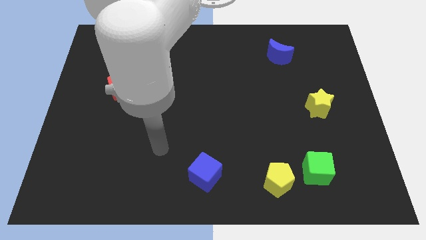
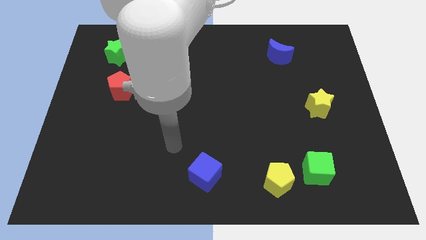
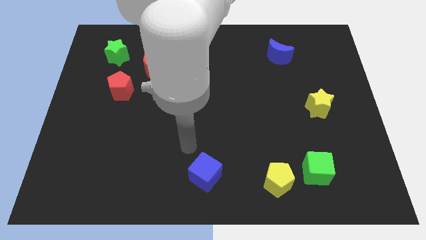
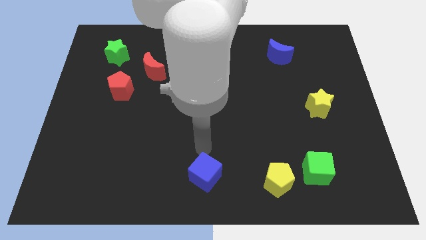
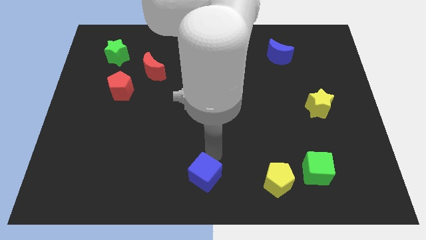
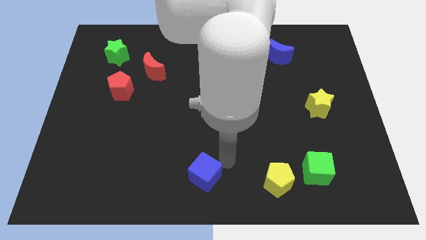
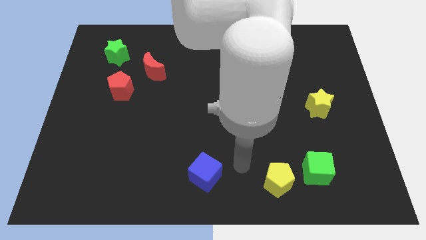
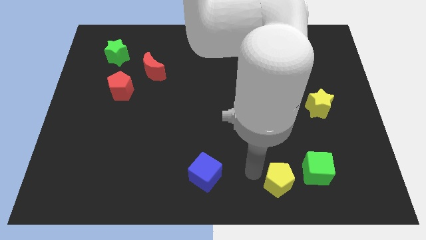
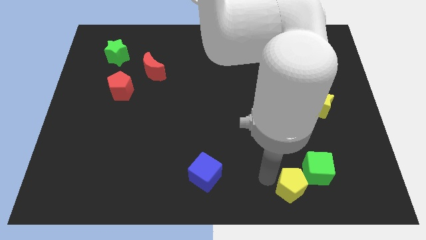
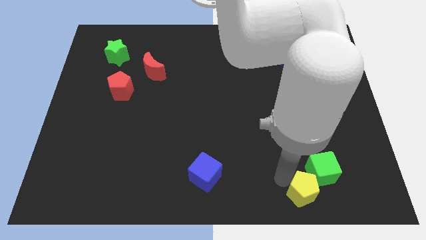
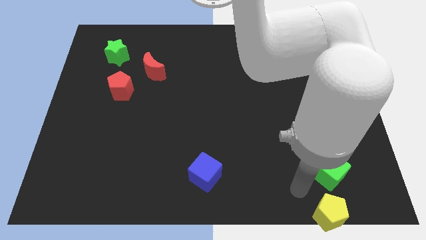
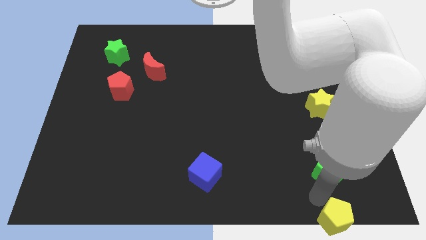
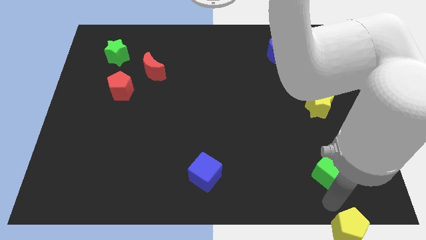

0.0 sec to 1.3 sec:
separate the green cube from the yellow pentagon

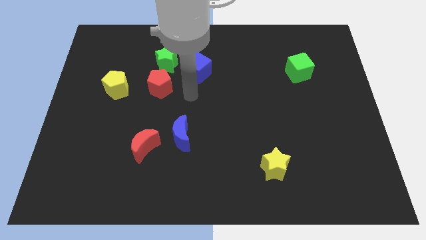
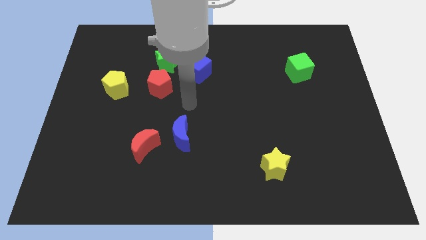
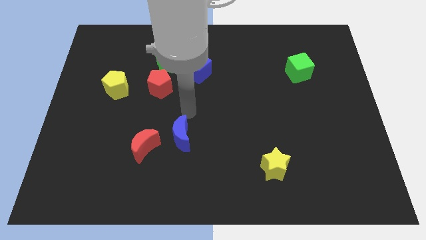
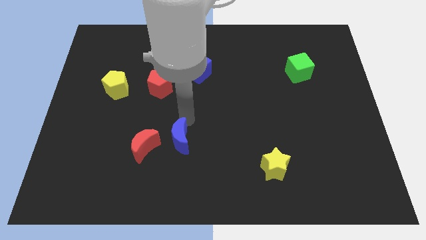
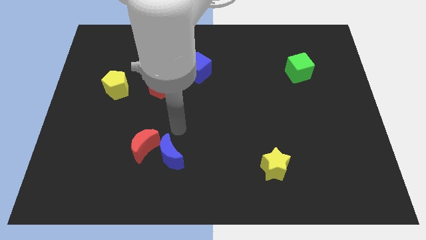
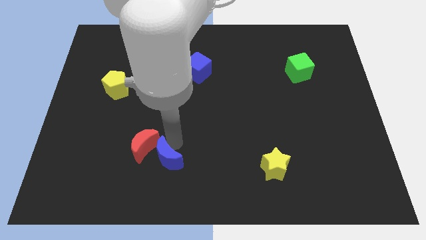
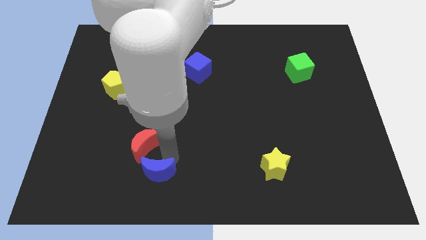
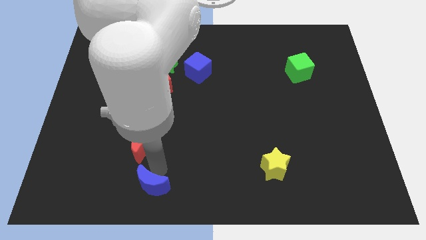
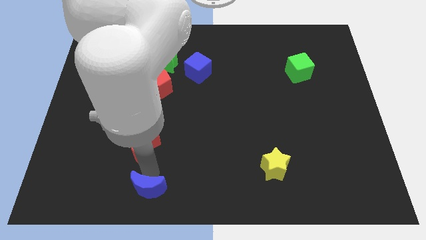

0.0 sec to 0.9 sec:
pull the red moon apart from the blue moon

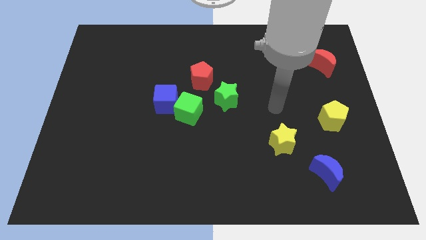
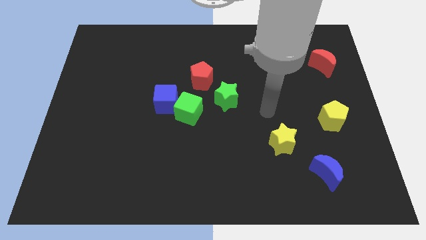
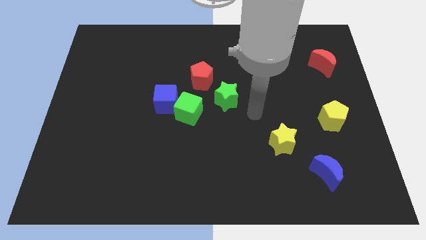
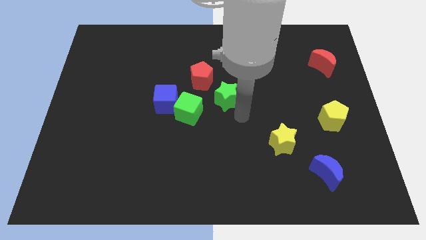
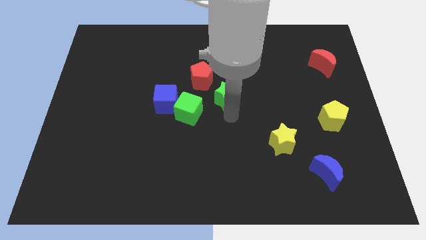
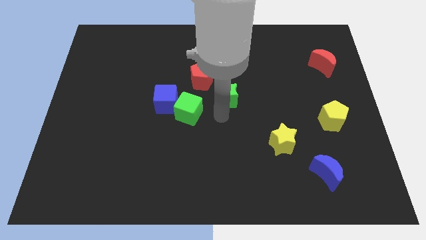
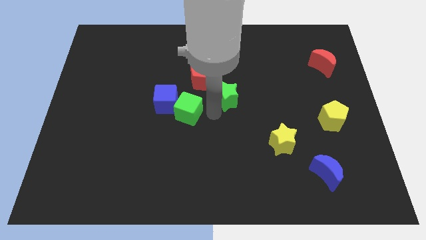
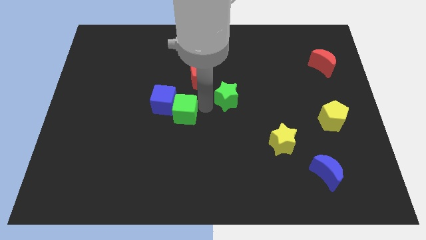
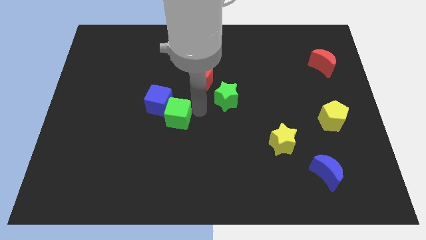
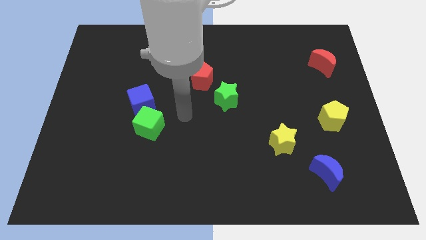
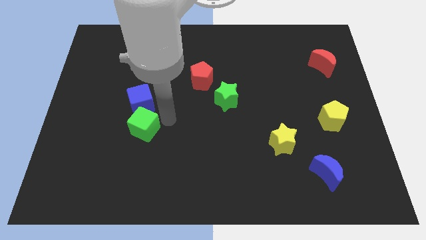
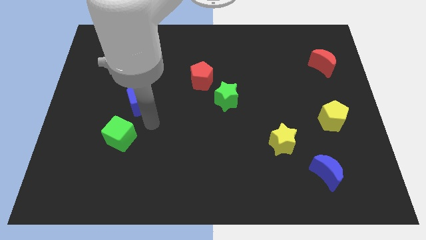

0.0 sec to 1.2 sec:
move the blue cube away from the green cube

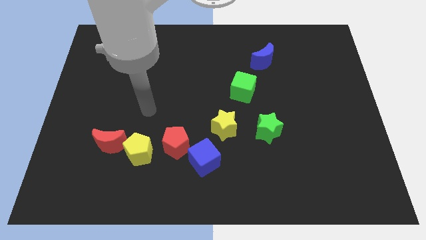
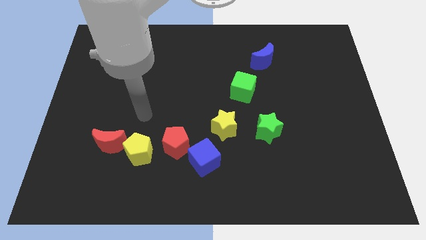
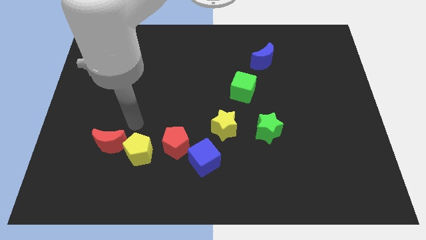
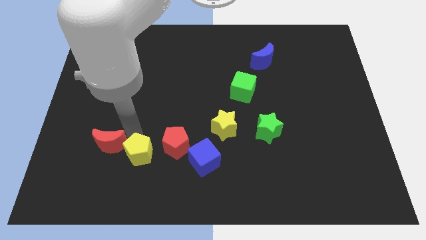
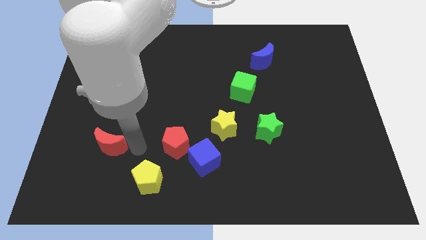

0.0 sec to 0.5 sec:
move the red moon away from the yellow pentagon

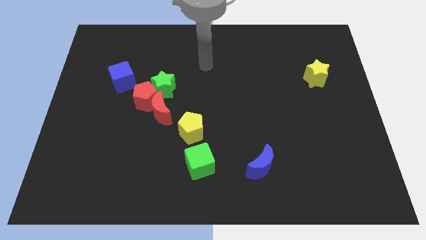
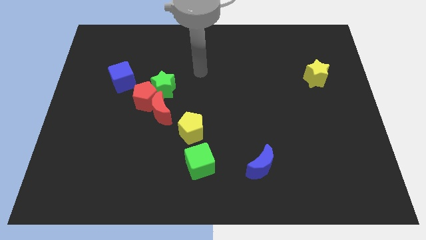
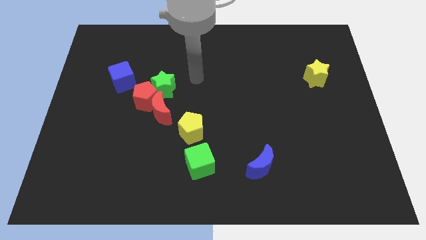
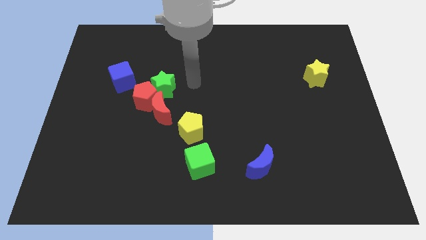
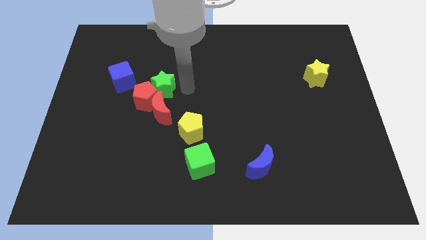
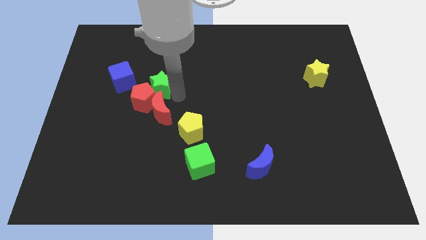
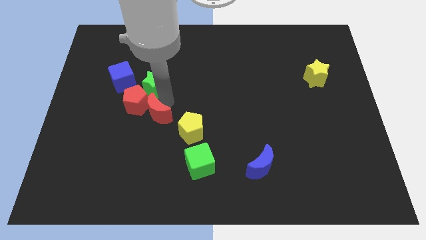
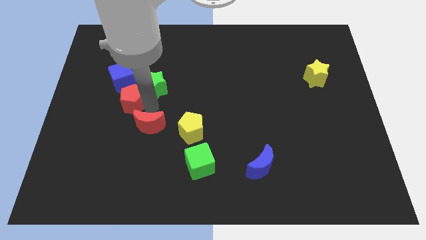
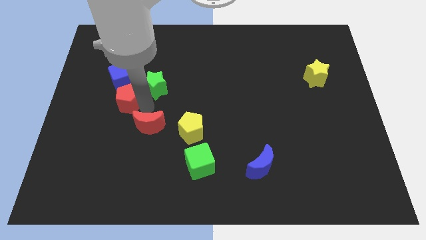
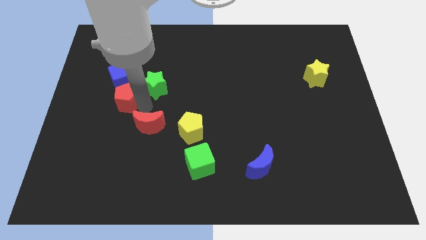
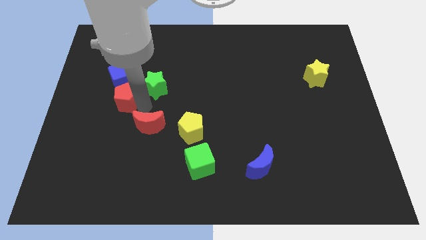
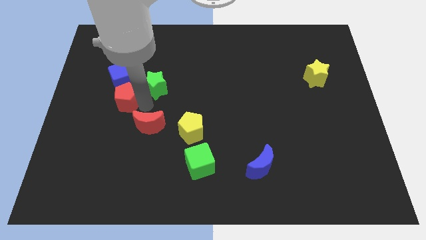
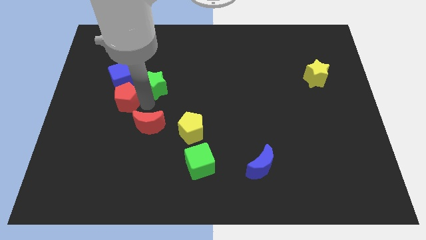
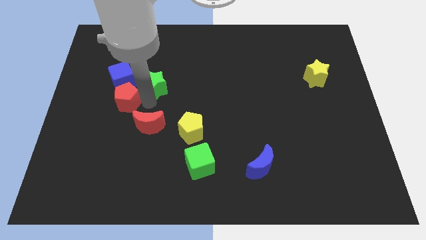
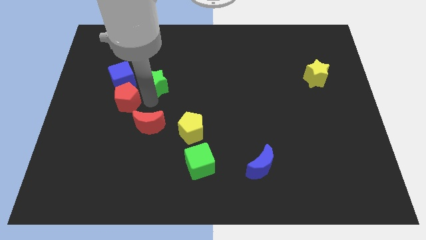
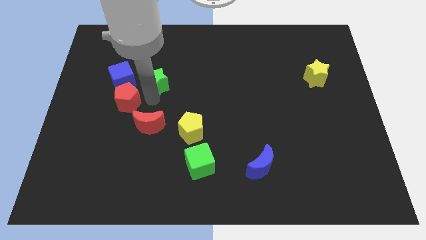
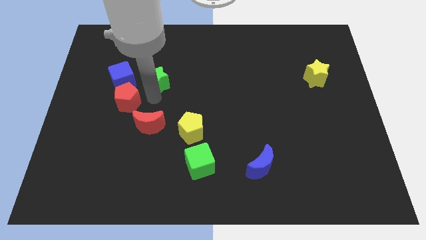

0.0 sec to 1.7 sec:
move the green star away from the red pentagon and red moon

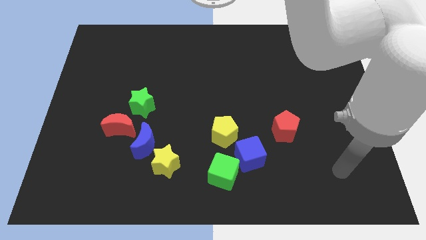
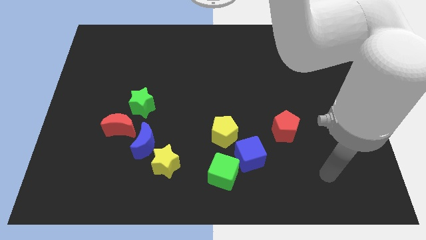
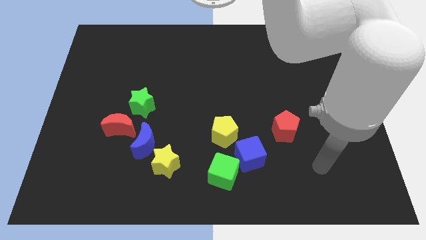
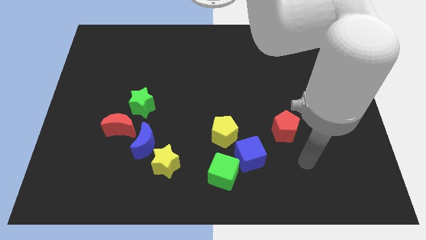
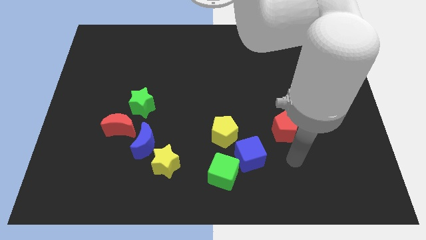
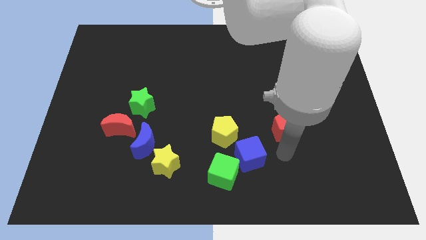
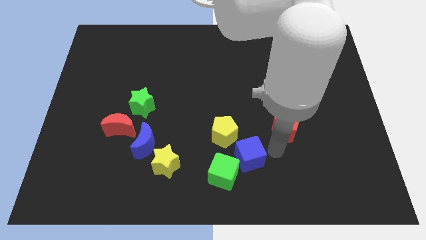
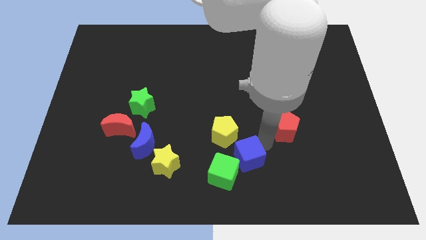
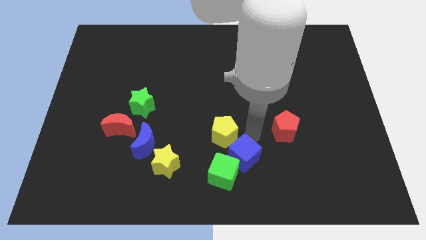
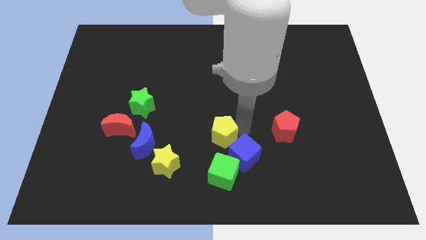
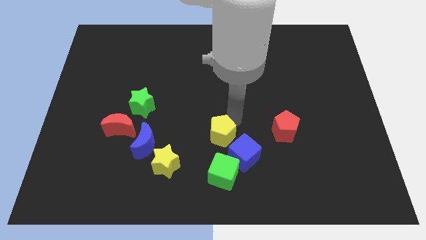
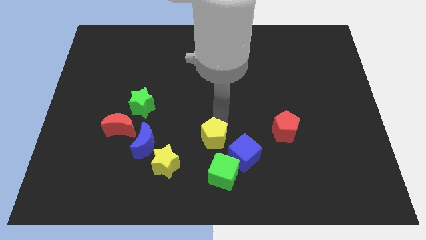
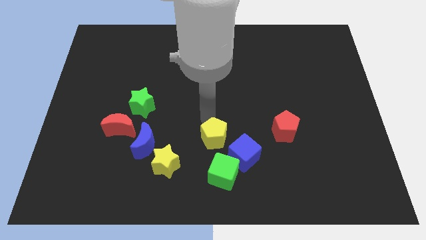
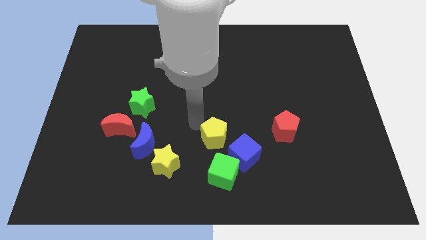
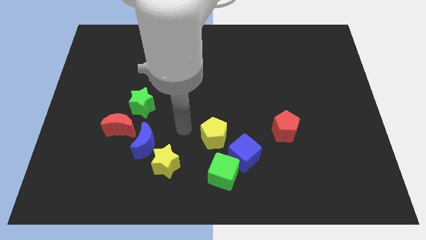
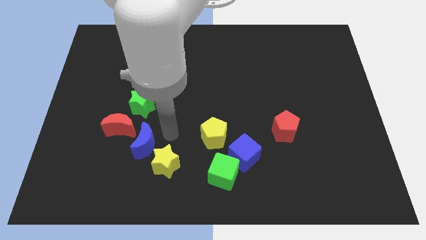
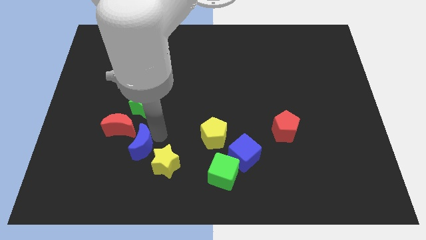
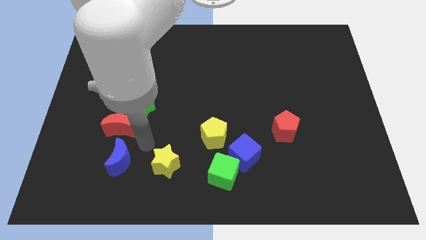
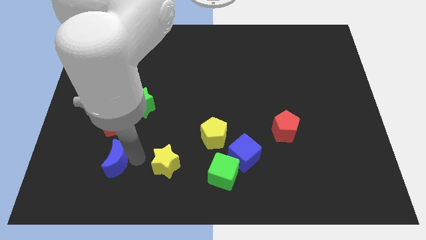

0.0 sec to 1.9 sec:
pull the yellow star apart from the blue moon

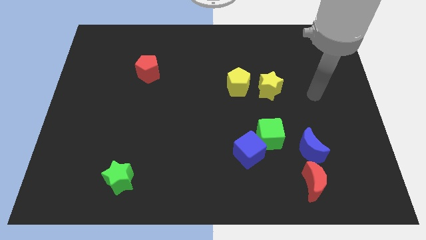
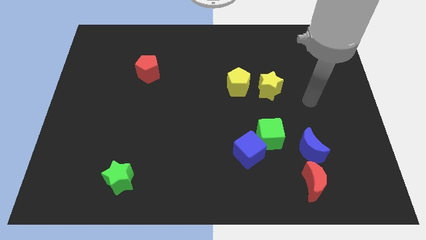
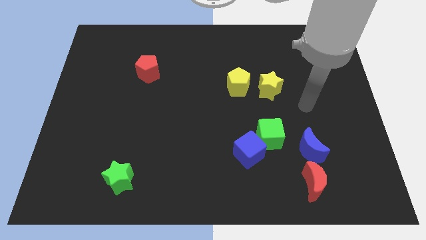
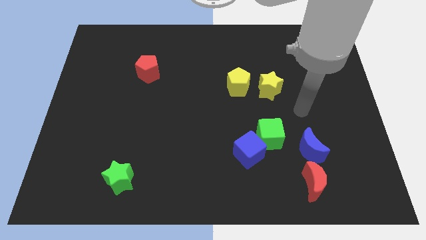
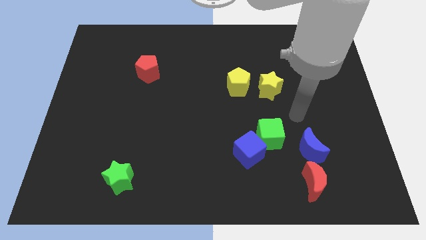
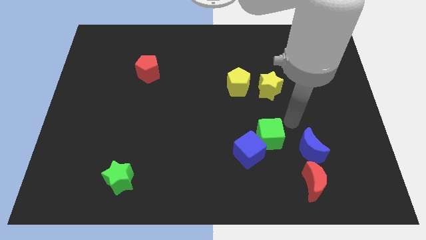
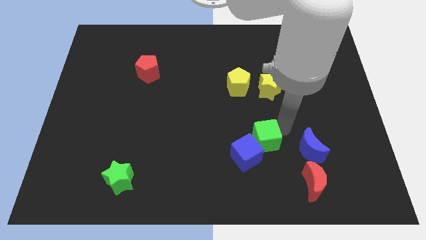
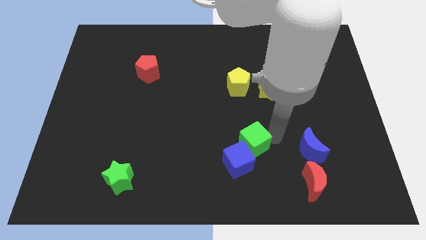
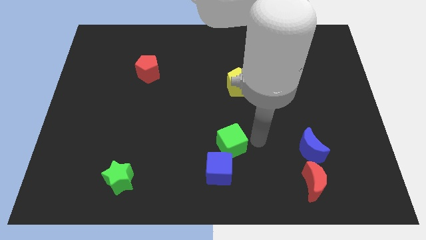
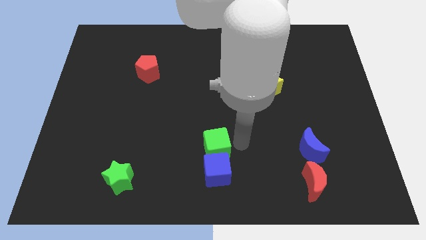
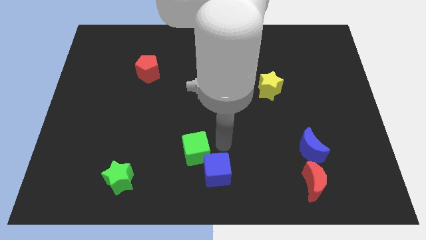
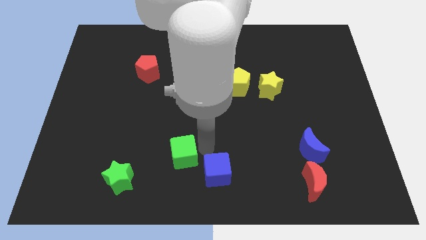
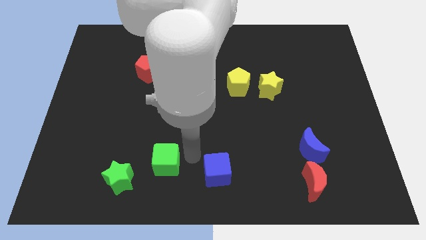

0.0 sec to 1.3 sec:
pull the blue cube apart from the green cube

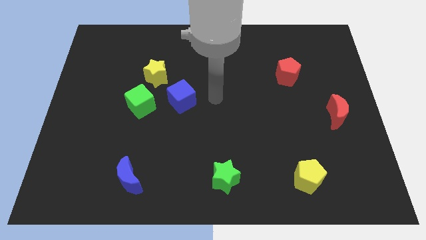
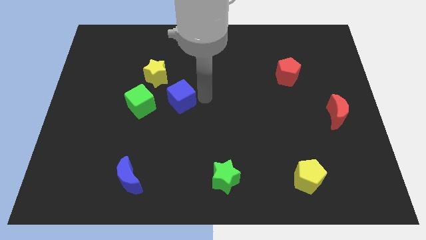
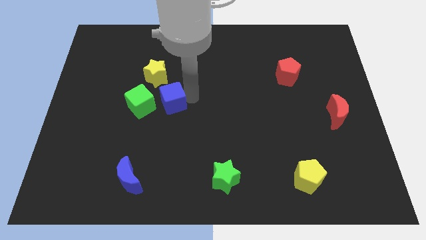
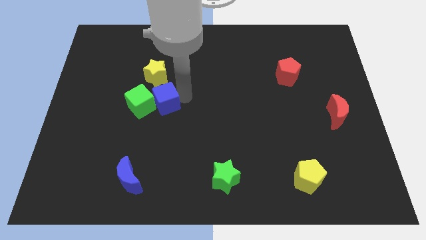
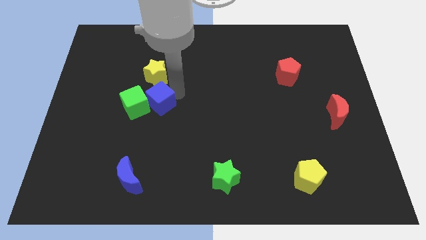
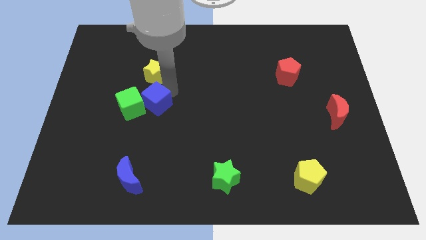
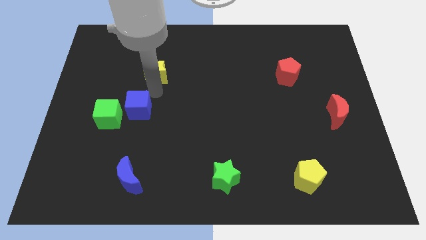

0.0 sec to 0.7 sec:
separate the green cube from the yellow star and blue cube
